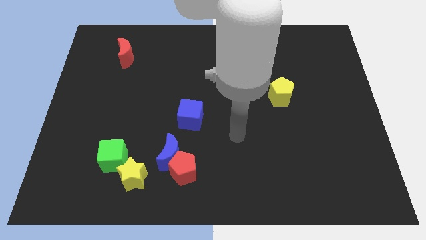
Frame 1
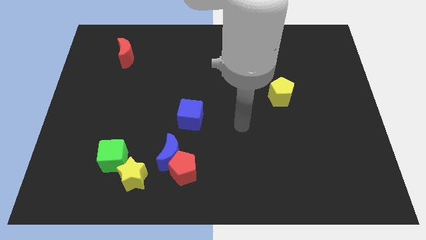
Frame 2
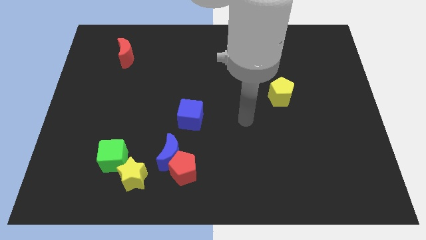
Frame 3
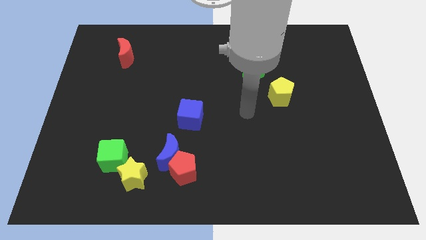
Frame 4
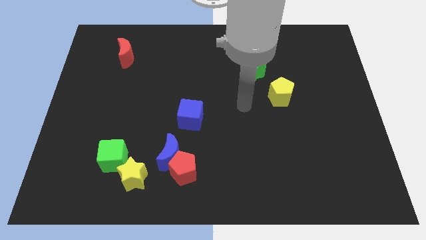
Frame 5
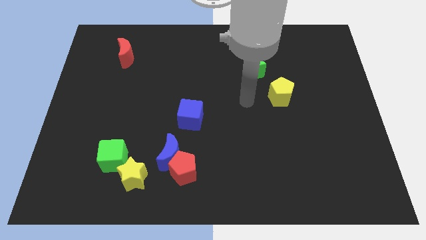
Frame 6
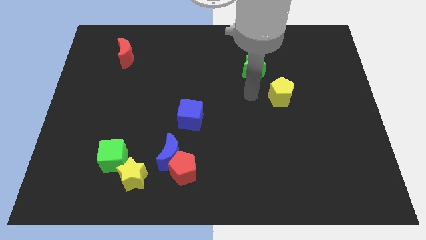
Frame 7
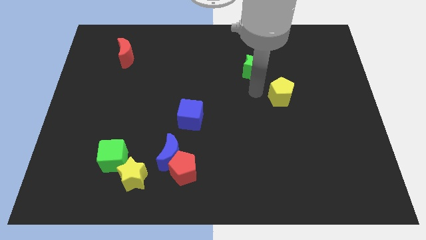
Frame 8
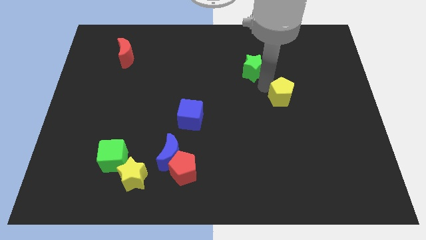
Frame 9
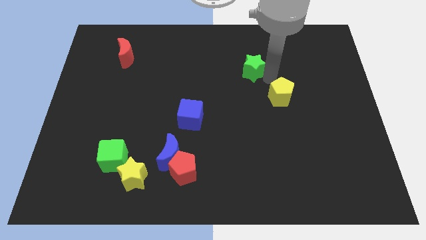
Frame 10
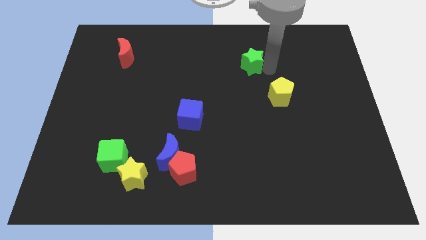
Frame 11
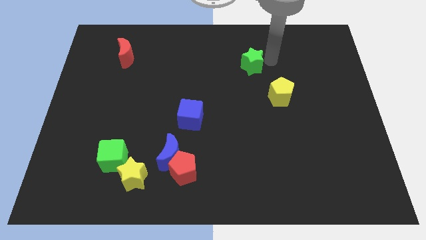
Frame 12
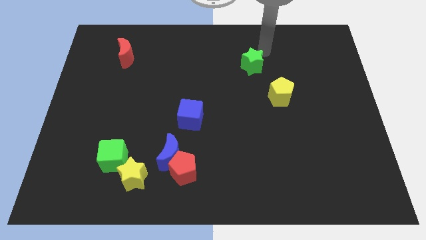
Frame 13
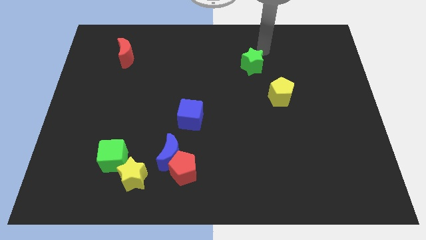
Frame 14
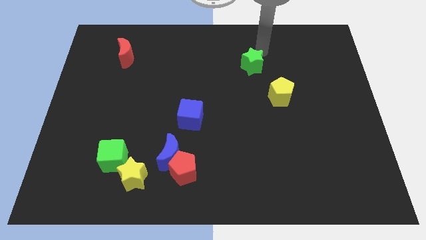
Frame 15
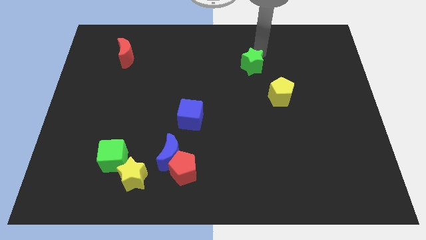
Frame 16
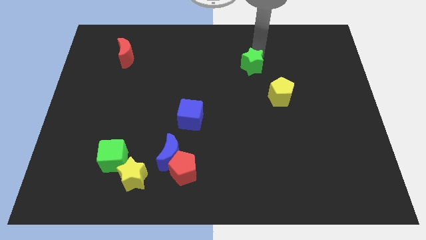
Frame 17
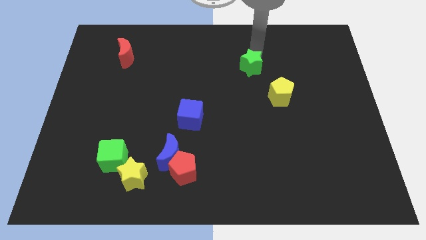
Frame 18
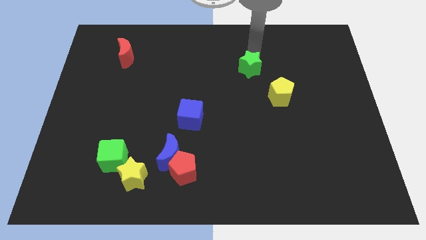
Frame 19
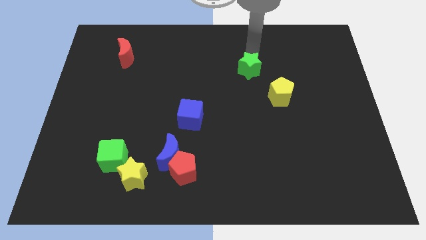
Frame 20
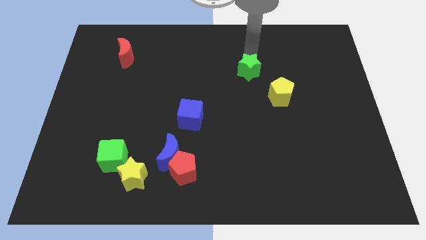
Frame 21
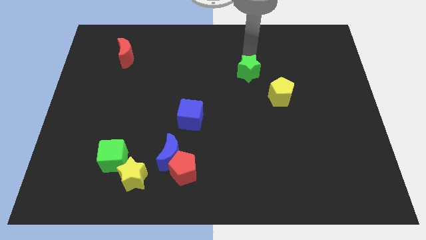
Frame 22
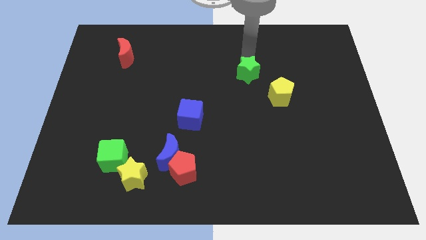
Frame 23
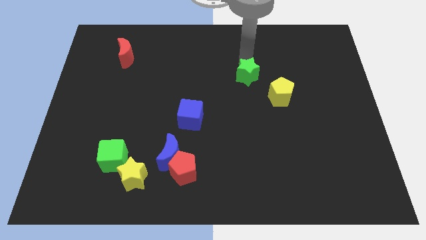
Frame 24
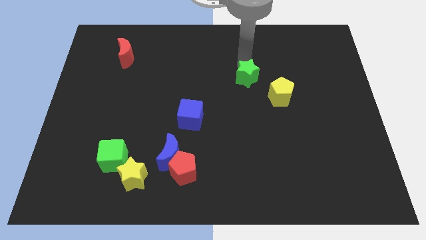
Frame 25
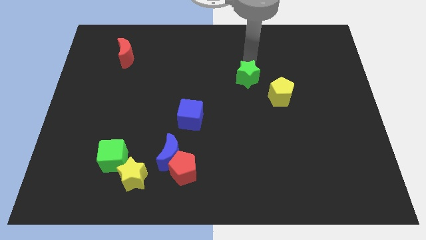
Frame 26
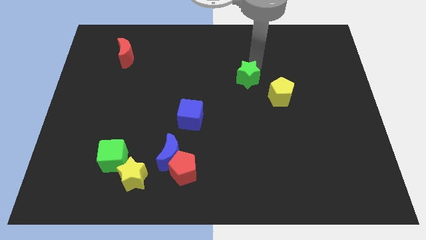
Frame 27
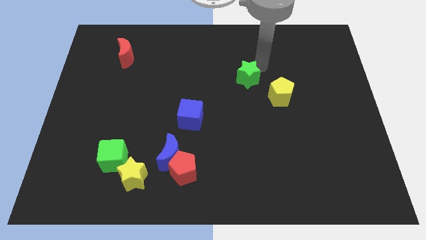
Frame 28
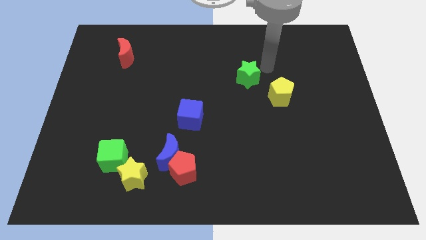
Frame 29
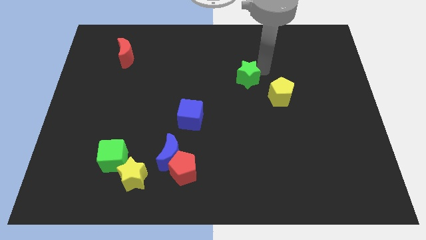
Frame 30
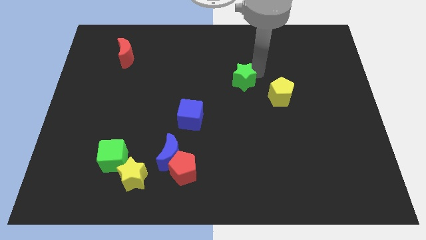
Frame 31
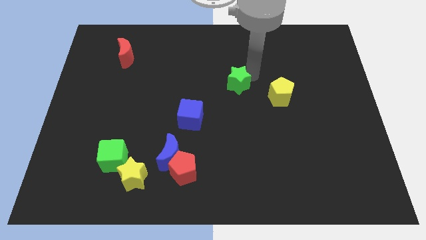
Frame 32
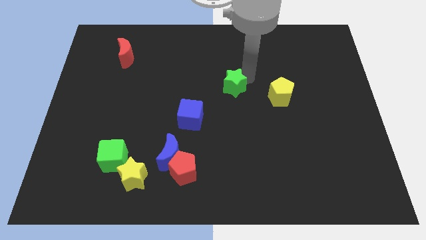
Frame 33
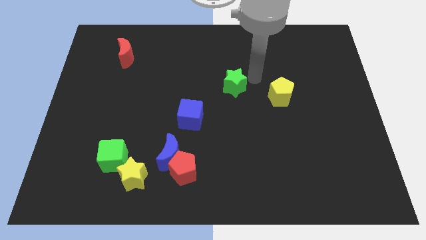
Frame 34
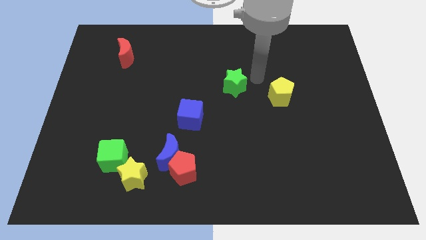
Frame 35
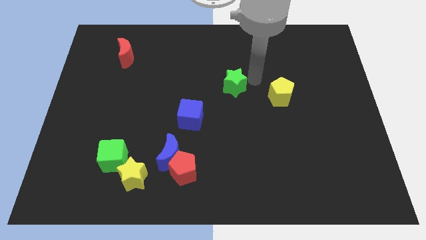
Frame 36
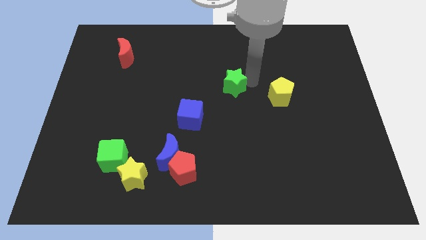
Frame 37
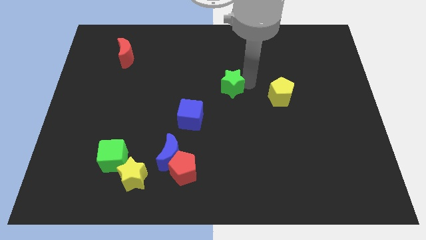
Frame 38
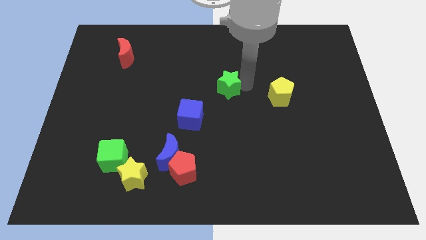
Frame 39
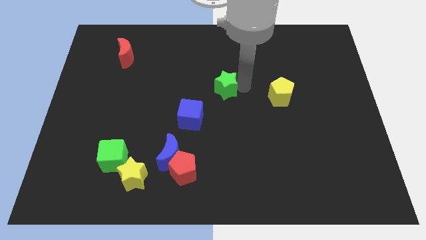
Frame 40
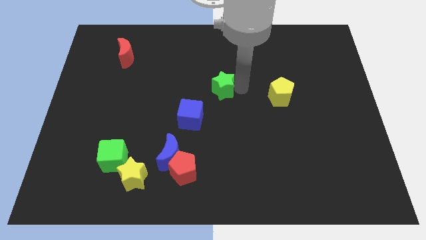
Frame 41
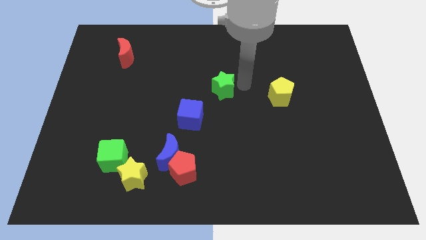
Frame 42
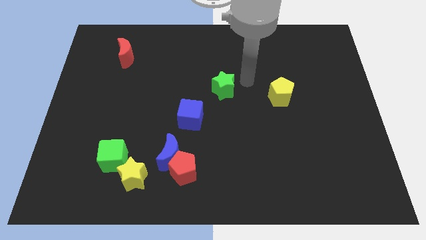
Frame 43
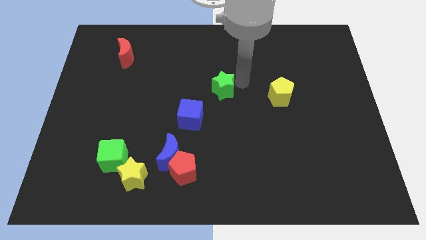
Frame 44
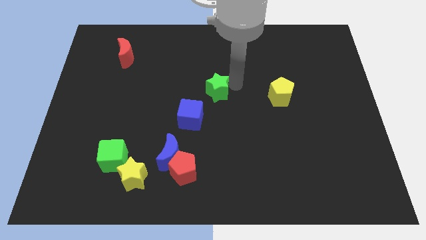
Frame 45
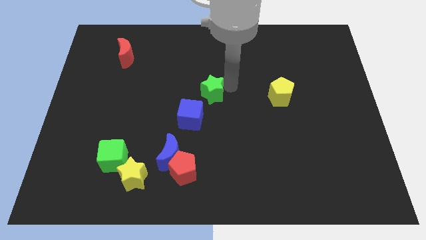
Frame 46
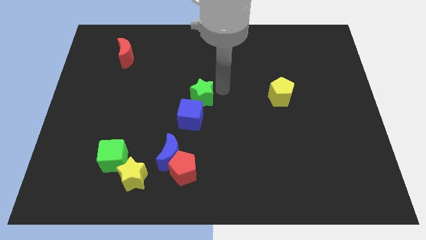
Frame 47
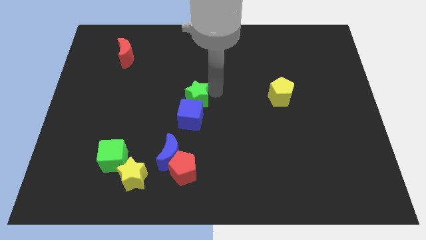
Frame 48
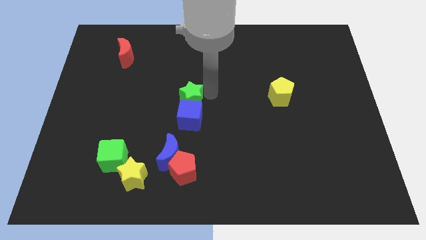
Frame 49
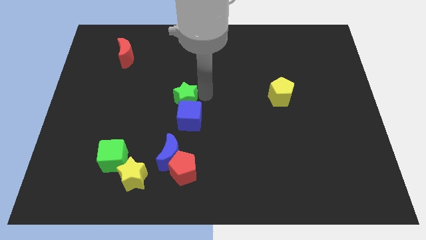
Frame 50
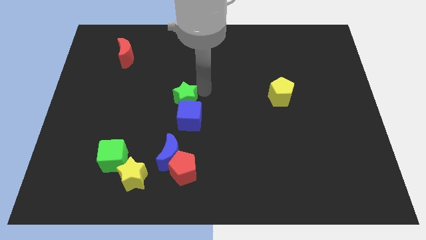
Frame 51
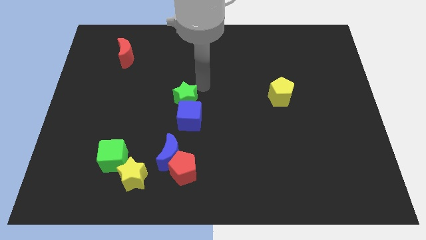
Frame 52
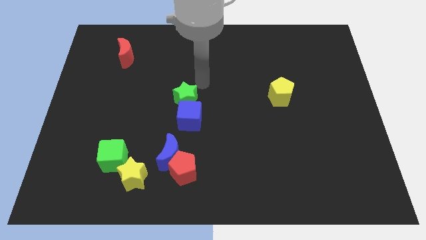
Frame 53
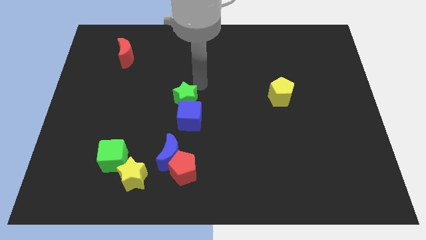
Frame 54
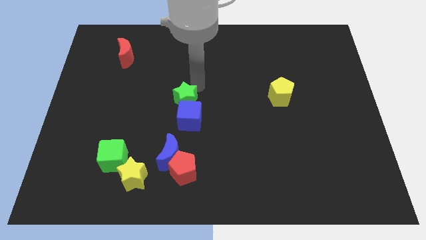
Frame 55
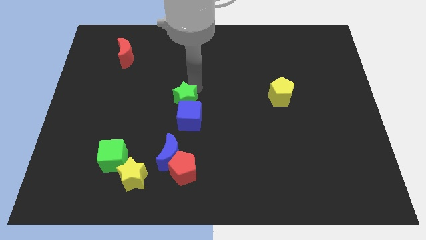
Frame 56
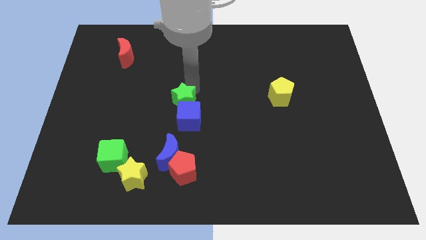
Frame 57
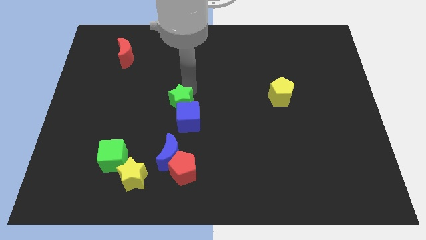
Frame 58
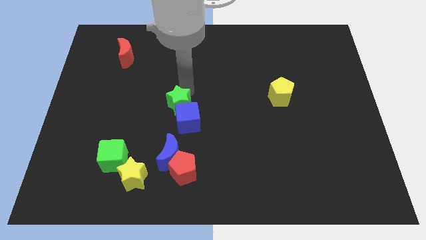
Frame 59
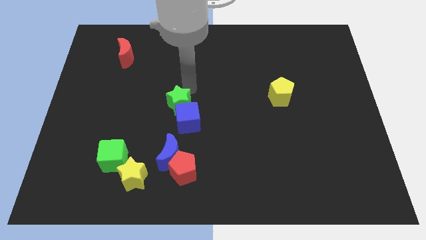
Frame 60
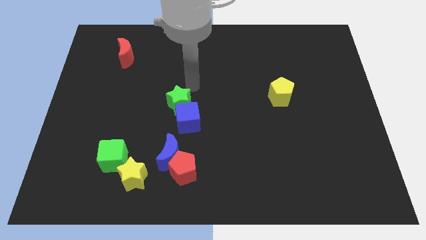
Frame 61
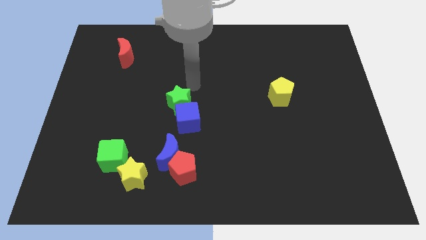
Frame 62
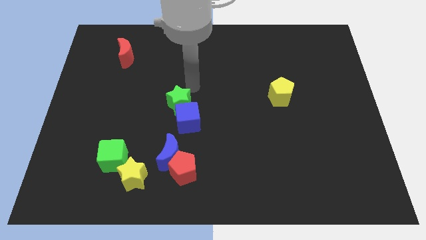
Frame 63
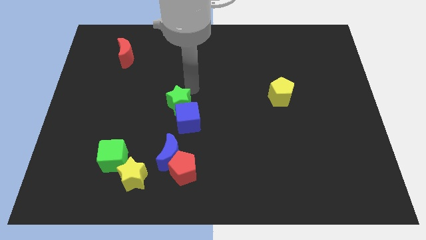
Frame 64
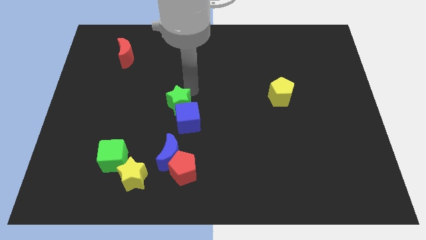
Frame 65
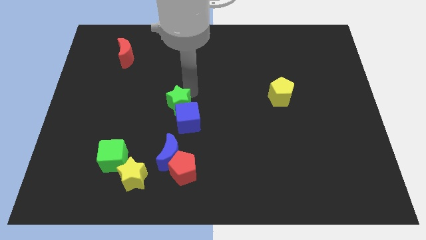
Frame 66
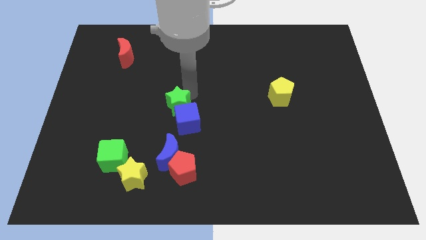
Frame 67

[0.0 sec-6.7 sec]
push the green star downwards and to the left diagonally

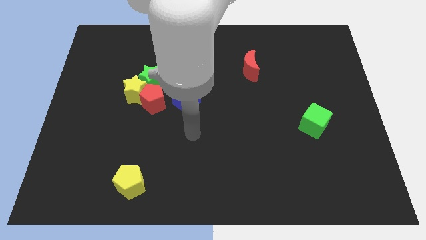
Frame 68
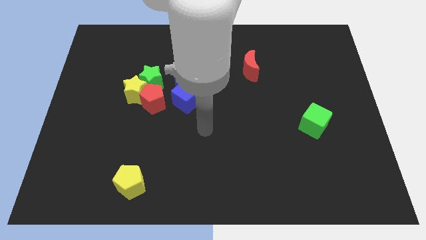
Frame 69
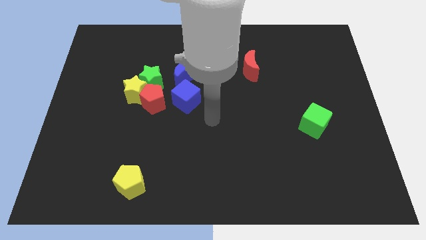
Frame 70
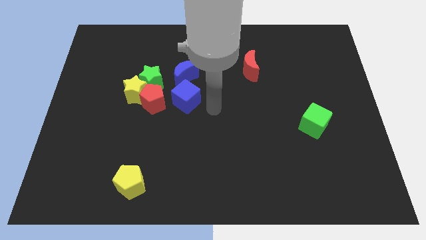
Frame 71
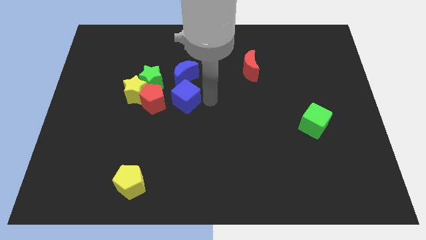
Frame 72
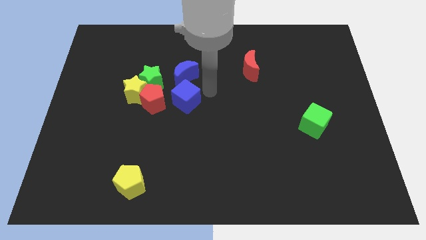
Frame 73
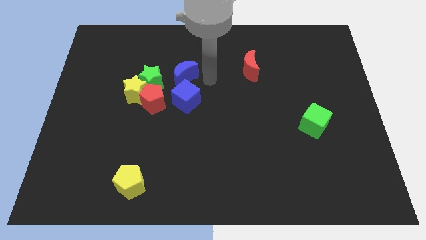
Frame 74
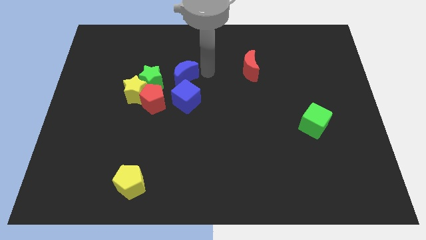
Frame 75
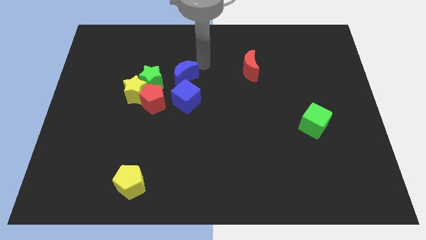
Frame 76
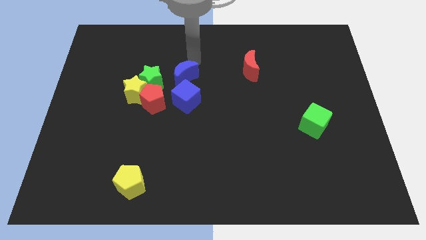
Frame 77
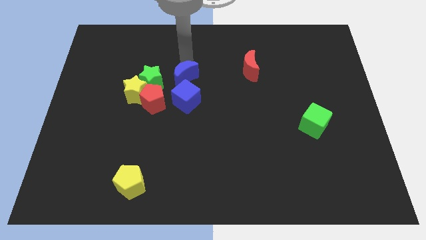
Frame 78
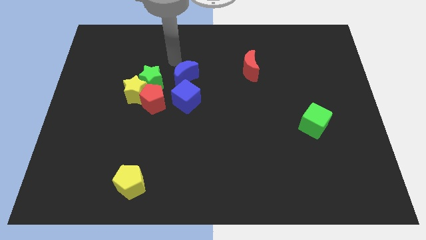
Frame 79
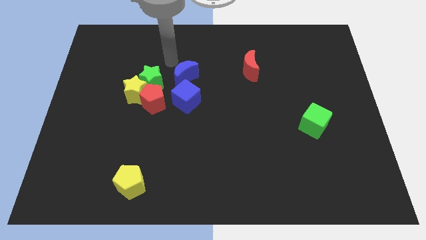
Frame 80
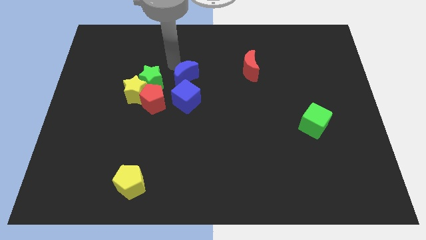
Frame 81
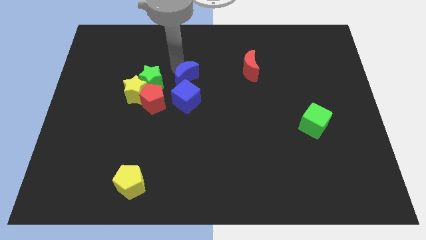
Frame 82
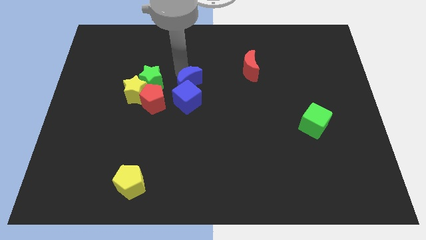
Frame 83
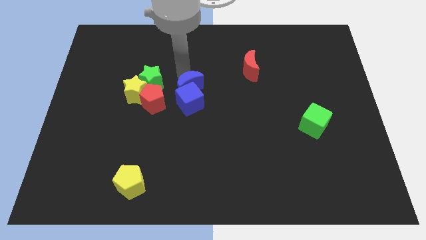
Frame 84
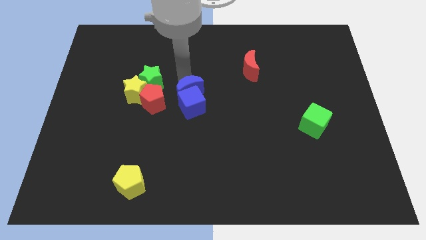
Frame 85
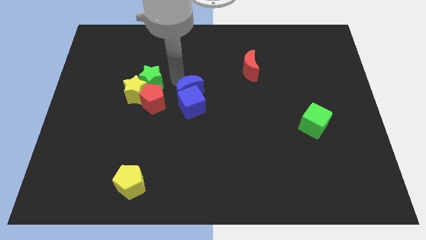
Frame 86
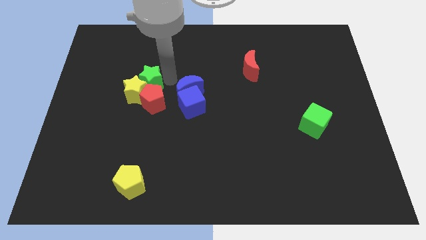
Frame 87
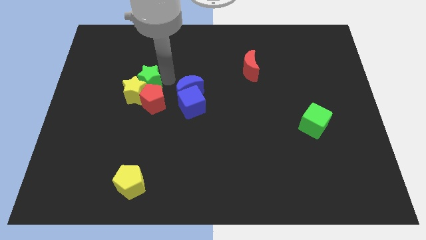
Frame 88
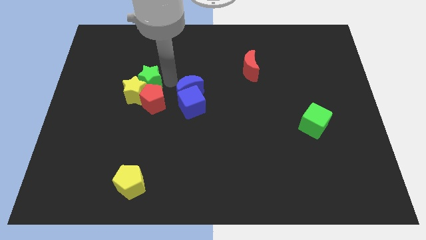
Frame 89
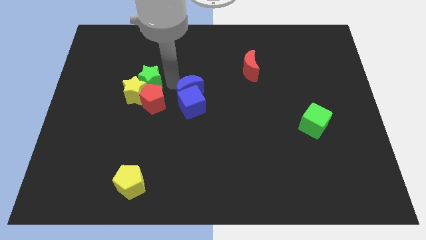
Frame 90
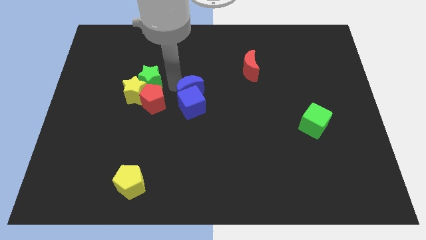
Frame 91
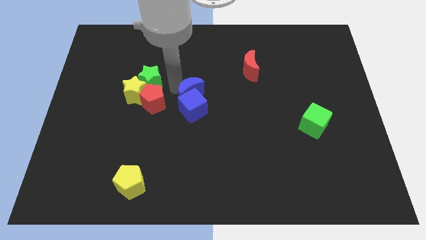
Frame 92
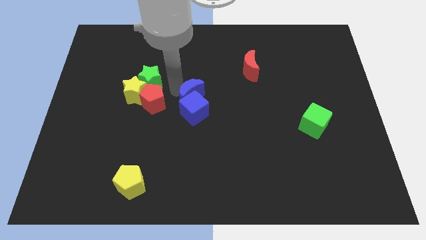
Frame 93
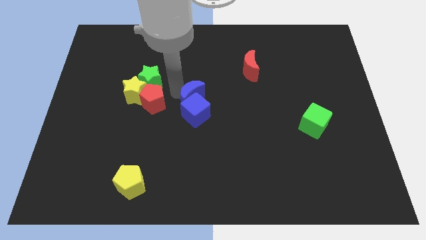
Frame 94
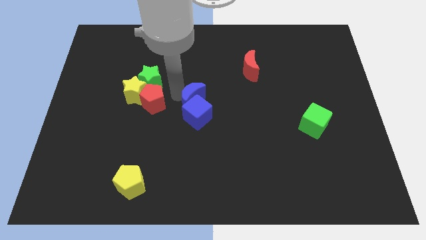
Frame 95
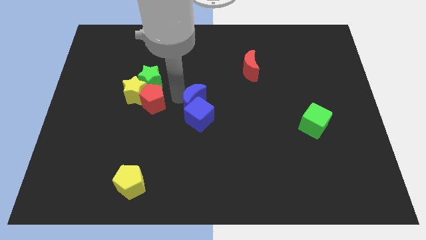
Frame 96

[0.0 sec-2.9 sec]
slide the blue moon a bit diagonally downwards and to the right
